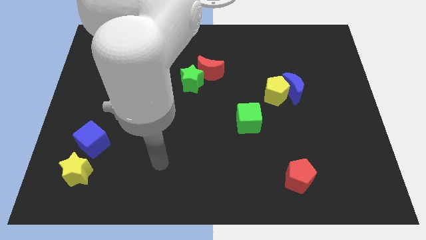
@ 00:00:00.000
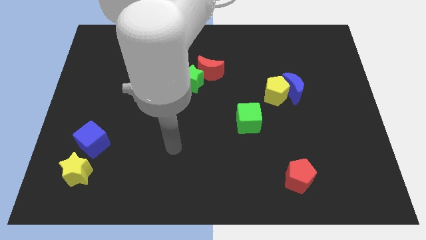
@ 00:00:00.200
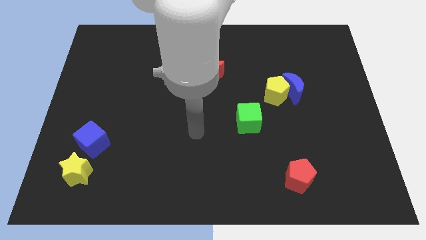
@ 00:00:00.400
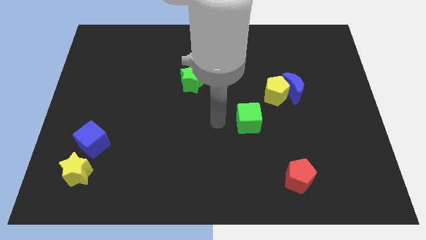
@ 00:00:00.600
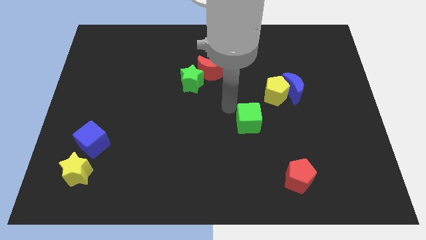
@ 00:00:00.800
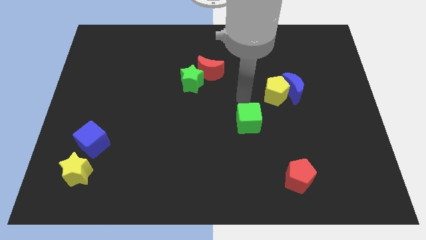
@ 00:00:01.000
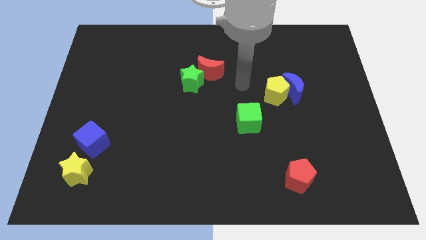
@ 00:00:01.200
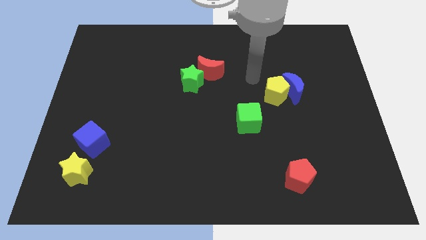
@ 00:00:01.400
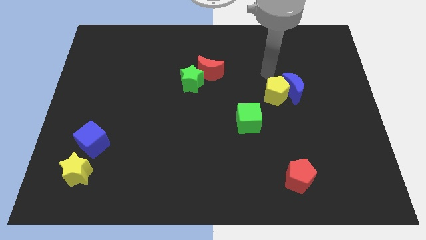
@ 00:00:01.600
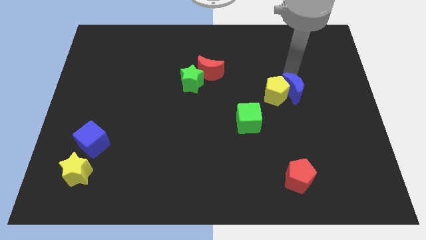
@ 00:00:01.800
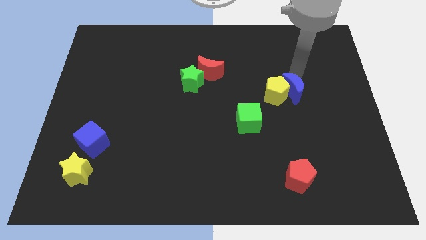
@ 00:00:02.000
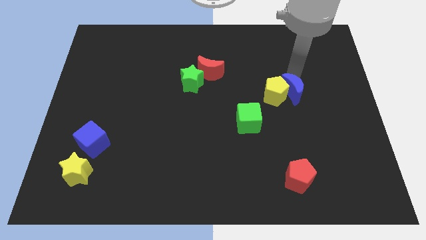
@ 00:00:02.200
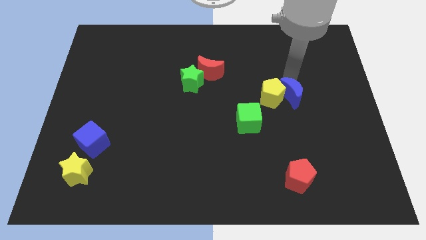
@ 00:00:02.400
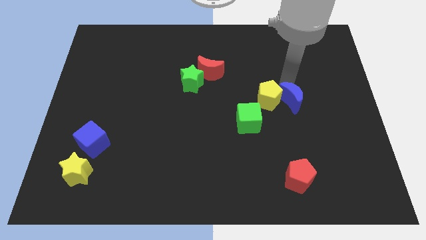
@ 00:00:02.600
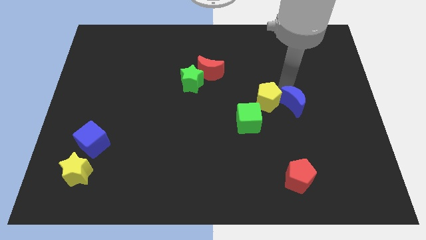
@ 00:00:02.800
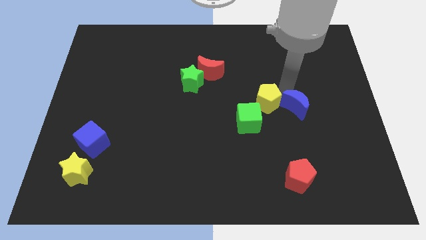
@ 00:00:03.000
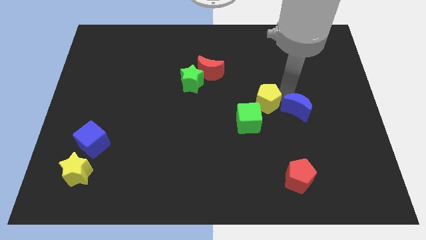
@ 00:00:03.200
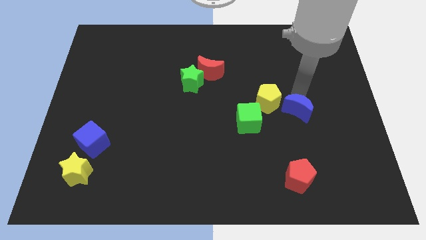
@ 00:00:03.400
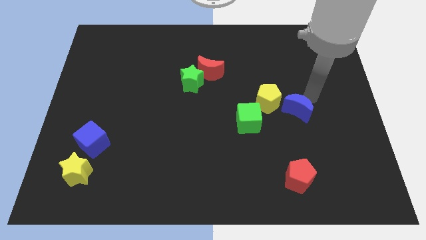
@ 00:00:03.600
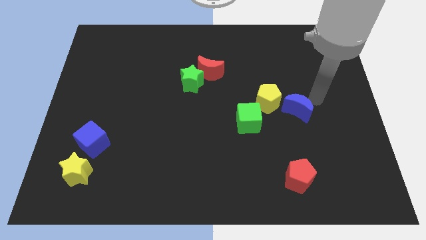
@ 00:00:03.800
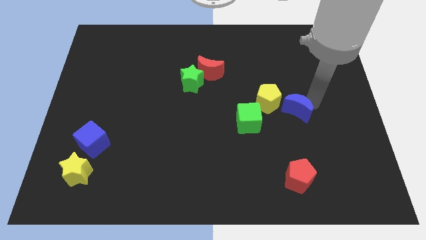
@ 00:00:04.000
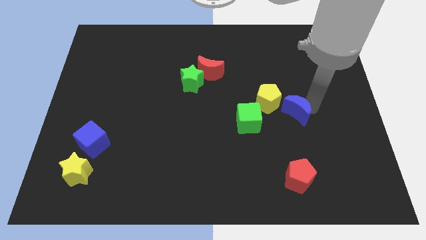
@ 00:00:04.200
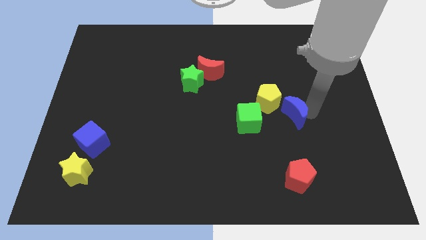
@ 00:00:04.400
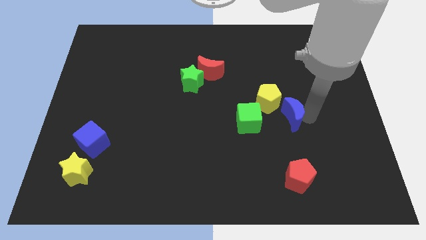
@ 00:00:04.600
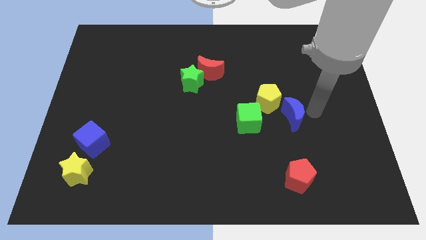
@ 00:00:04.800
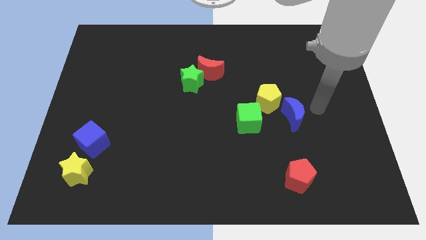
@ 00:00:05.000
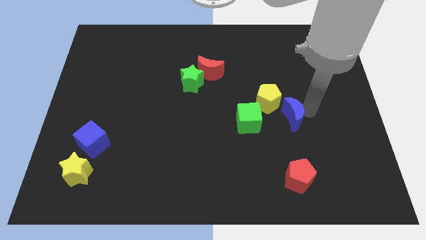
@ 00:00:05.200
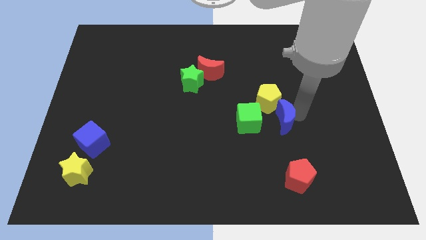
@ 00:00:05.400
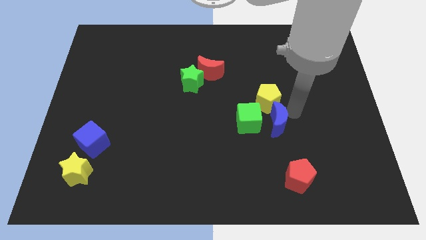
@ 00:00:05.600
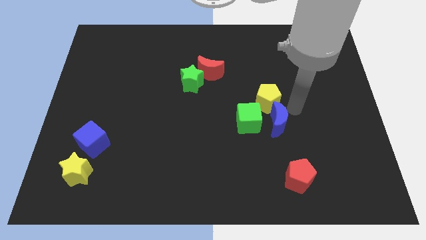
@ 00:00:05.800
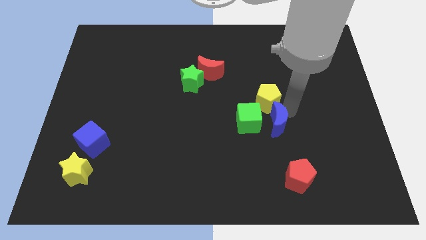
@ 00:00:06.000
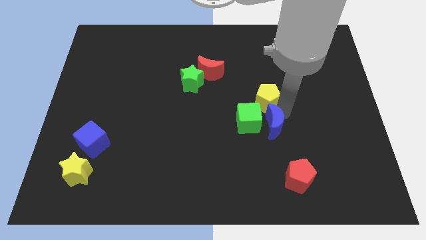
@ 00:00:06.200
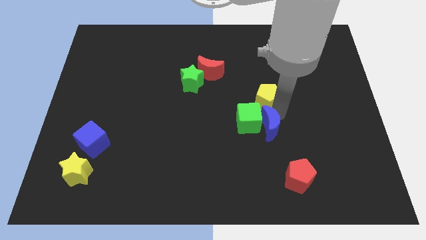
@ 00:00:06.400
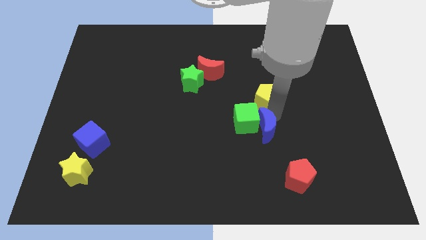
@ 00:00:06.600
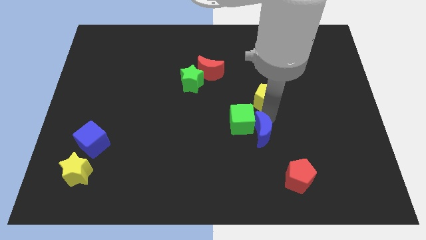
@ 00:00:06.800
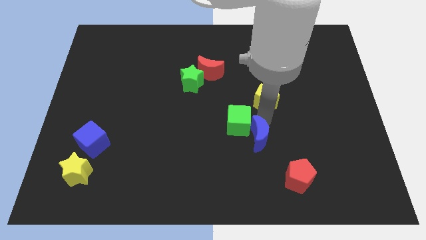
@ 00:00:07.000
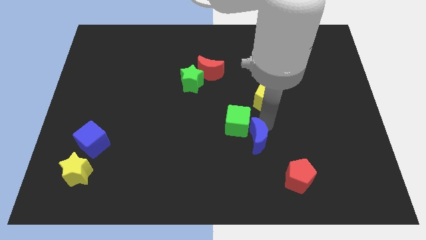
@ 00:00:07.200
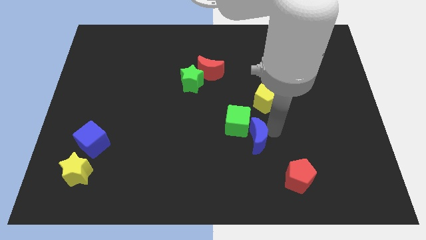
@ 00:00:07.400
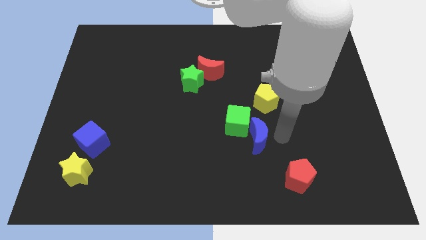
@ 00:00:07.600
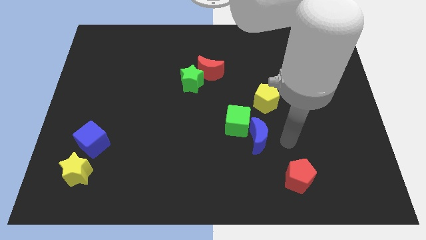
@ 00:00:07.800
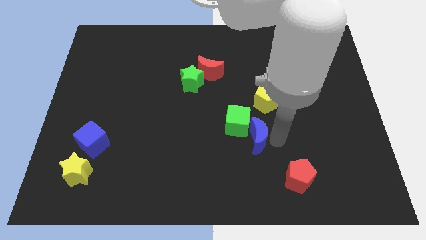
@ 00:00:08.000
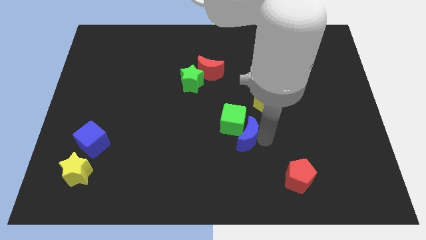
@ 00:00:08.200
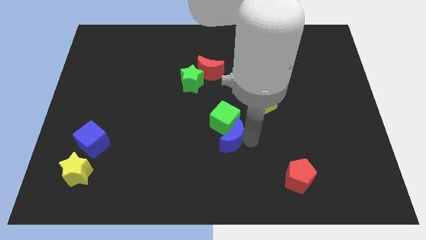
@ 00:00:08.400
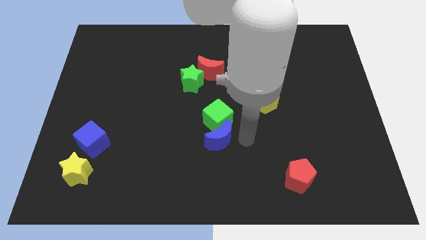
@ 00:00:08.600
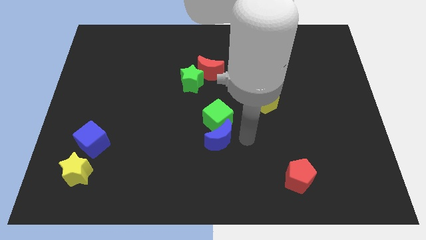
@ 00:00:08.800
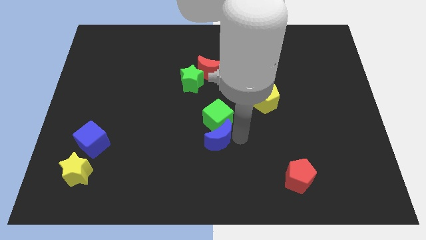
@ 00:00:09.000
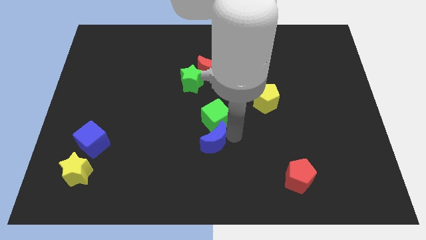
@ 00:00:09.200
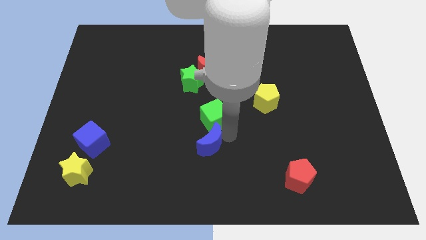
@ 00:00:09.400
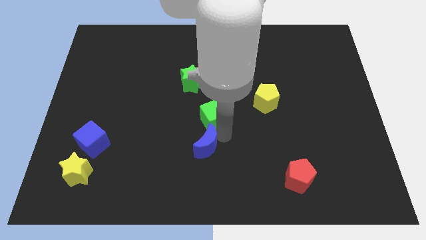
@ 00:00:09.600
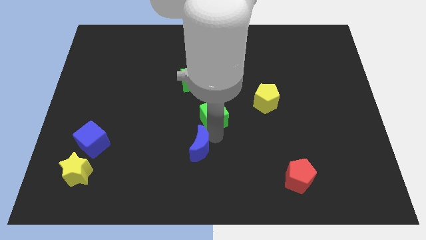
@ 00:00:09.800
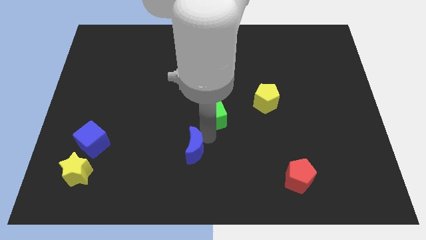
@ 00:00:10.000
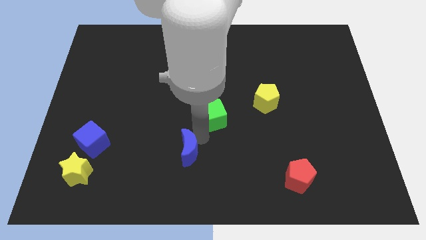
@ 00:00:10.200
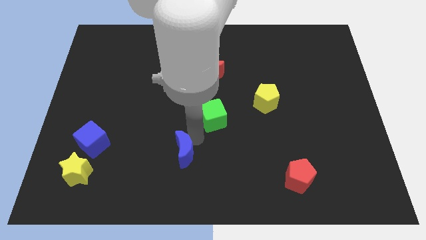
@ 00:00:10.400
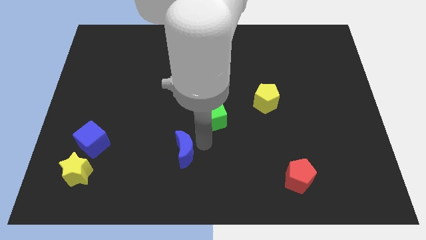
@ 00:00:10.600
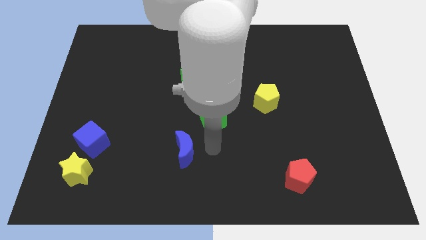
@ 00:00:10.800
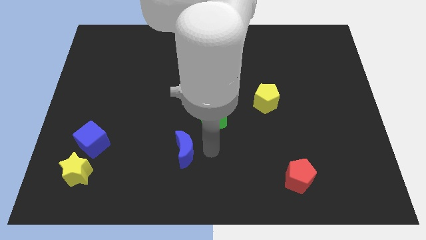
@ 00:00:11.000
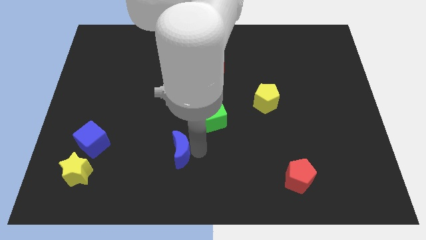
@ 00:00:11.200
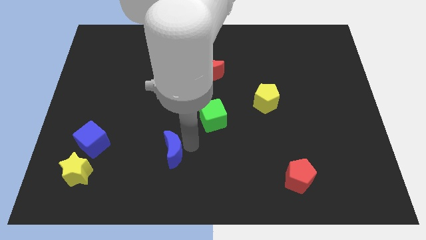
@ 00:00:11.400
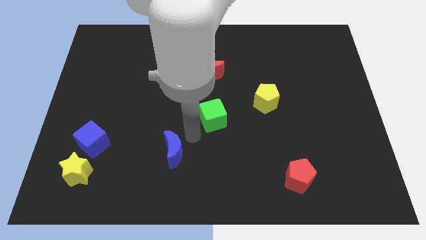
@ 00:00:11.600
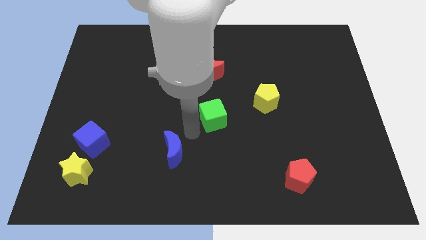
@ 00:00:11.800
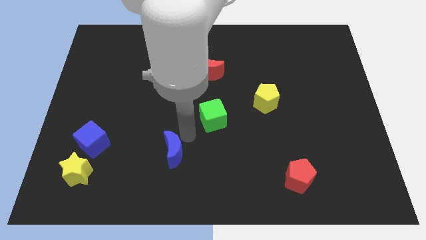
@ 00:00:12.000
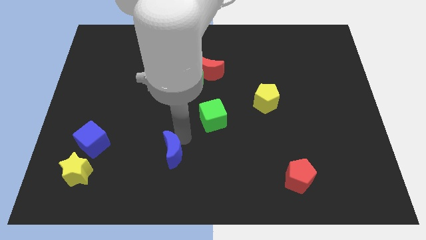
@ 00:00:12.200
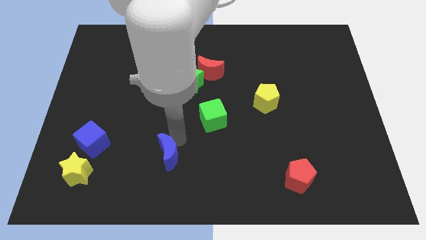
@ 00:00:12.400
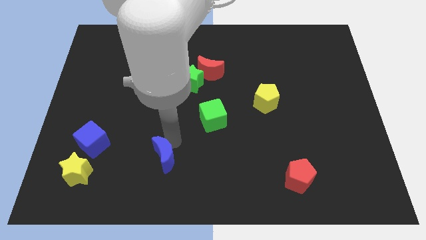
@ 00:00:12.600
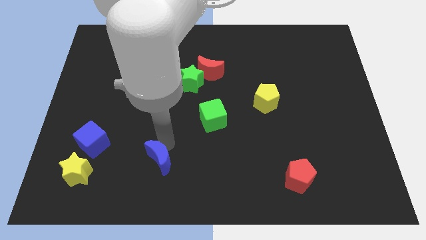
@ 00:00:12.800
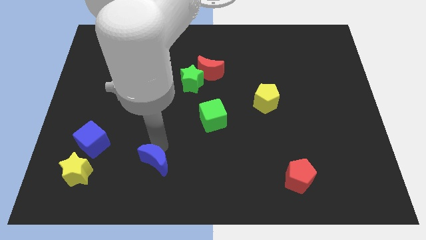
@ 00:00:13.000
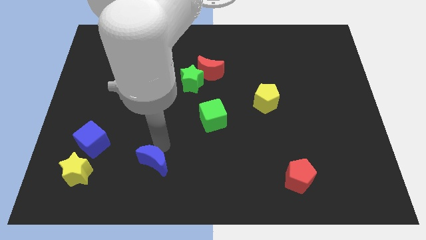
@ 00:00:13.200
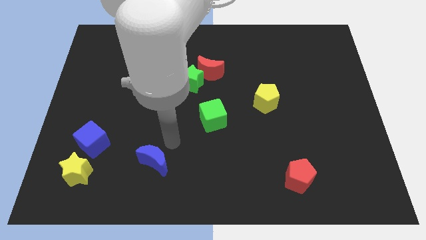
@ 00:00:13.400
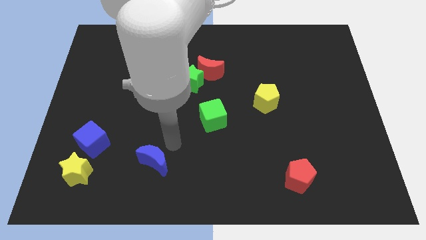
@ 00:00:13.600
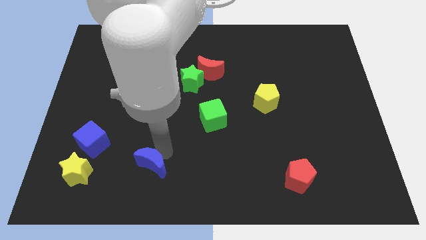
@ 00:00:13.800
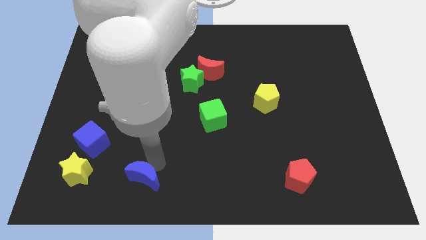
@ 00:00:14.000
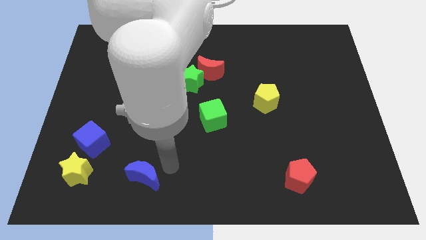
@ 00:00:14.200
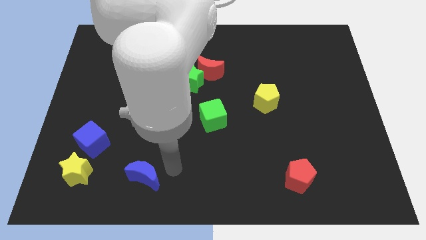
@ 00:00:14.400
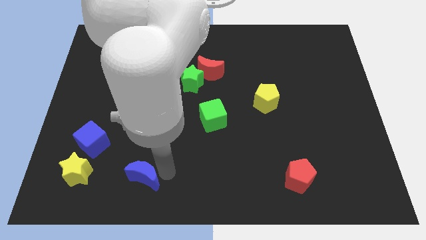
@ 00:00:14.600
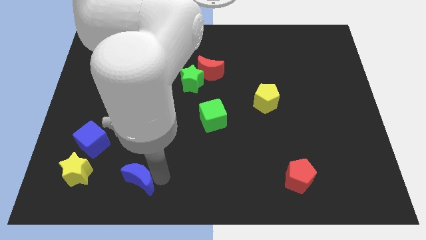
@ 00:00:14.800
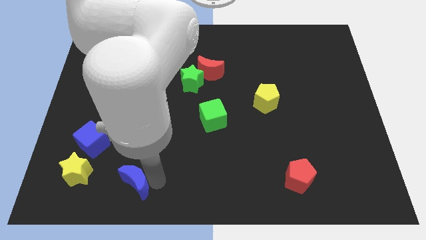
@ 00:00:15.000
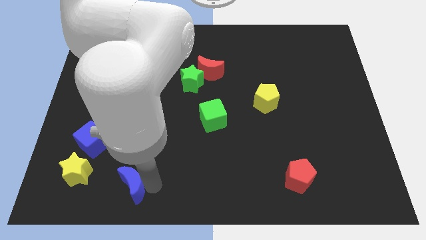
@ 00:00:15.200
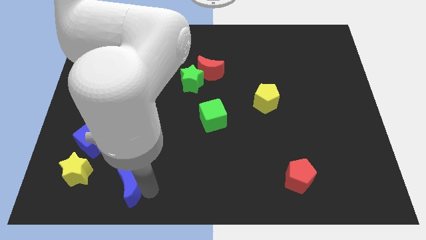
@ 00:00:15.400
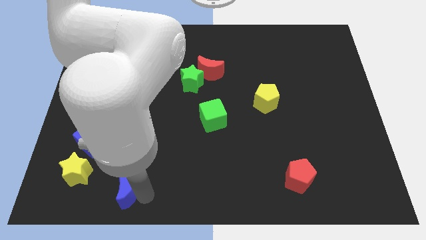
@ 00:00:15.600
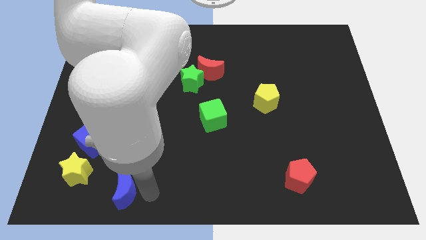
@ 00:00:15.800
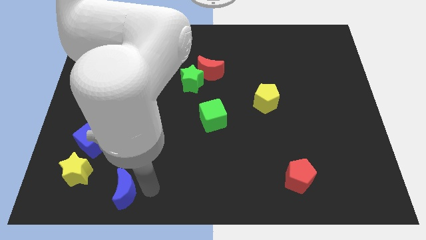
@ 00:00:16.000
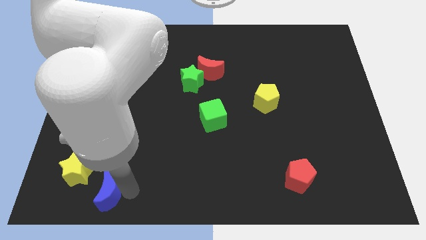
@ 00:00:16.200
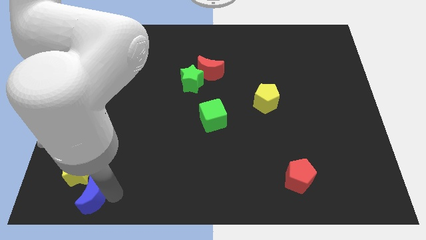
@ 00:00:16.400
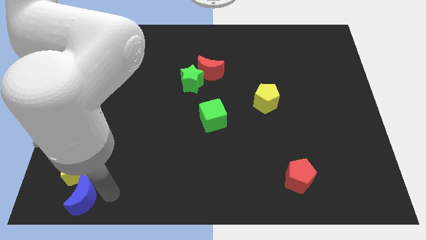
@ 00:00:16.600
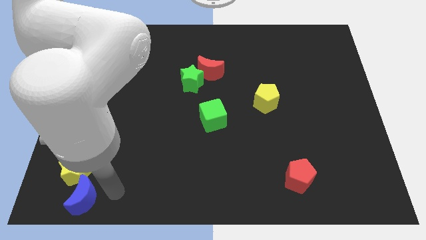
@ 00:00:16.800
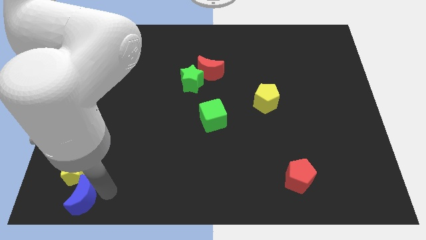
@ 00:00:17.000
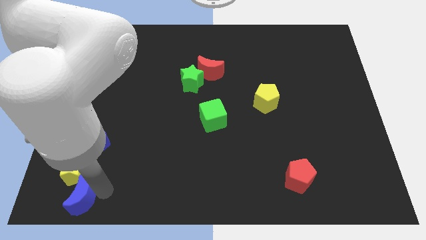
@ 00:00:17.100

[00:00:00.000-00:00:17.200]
push the blue moon to the bottom left corner
